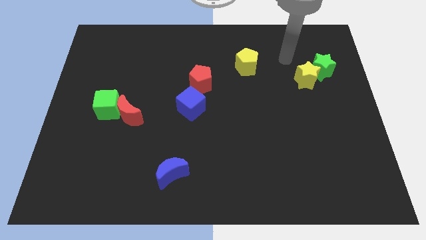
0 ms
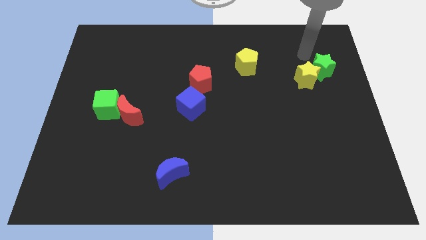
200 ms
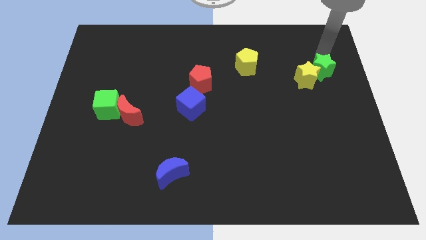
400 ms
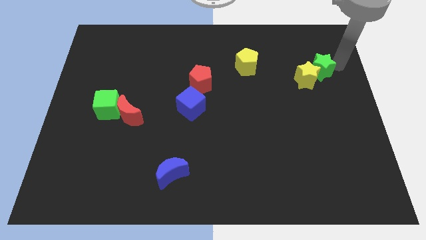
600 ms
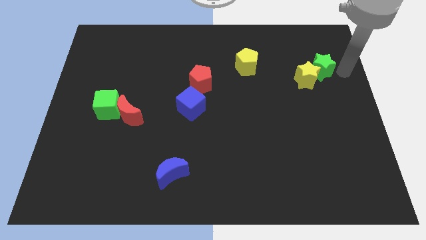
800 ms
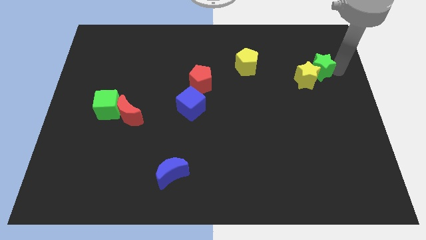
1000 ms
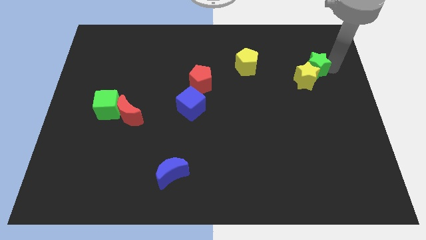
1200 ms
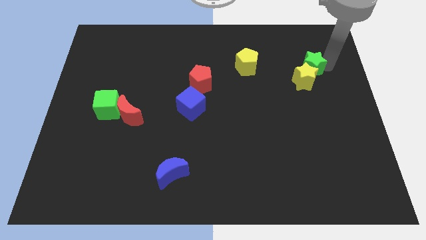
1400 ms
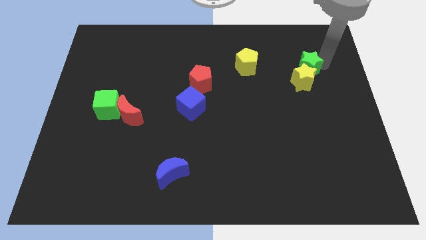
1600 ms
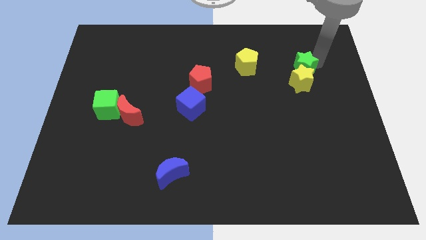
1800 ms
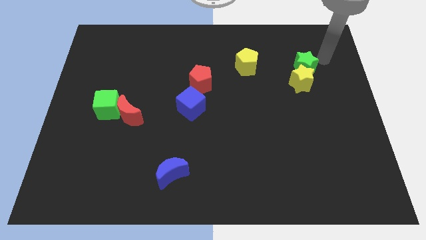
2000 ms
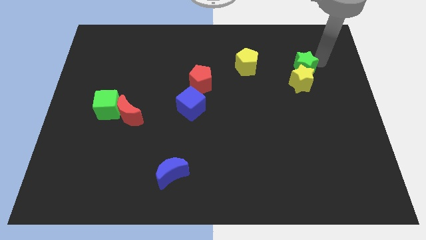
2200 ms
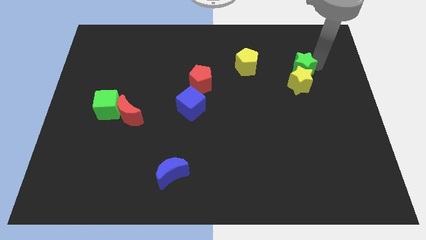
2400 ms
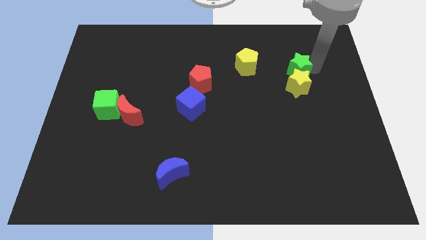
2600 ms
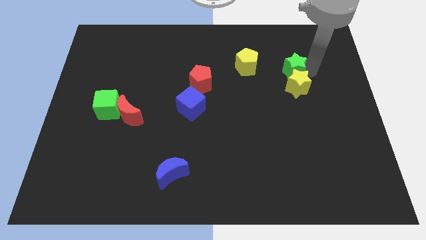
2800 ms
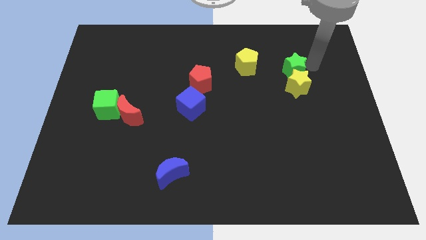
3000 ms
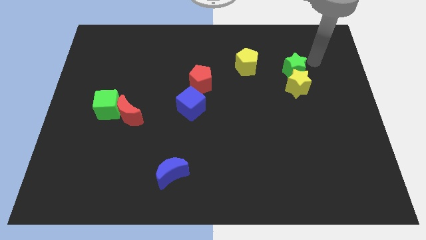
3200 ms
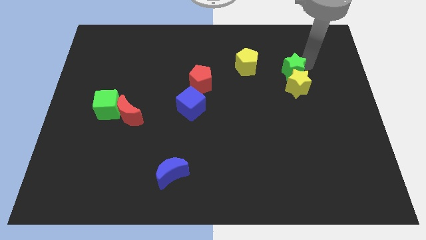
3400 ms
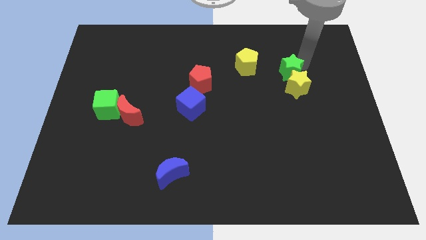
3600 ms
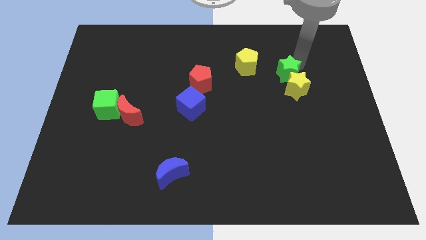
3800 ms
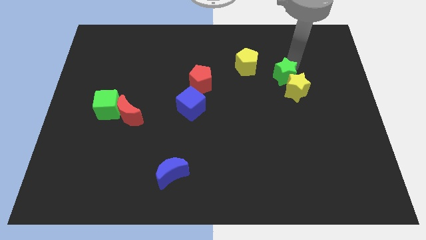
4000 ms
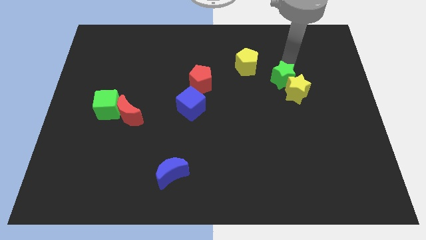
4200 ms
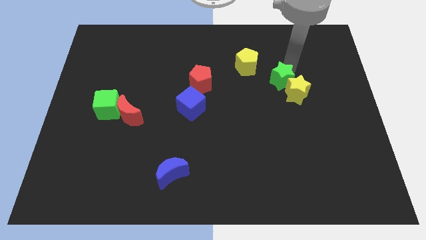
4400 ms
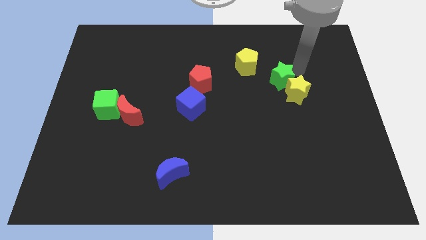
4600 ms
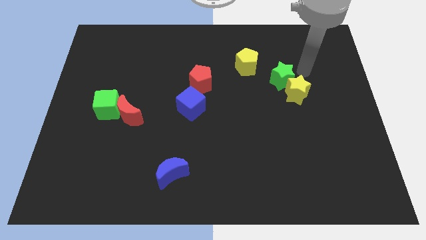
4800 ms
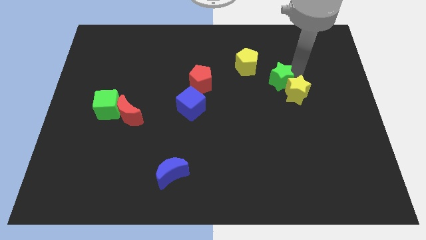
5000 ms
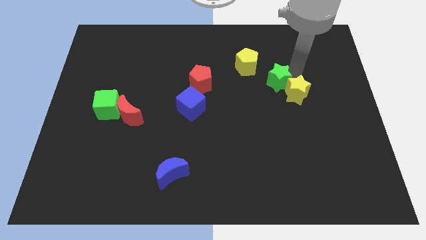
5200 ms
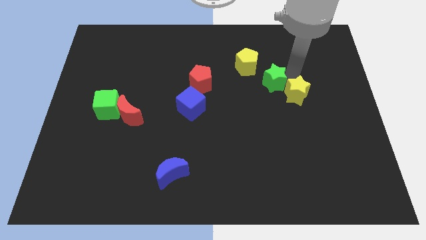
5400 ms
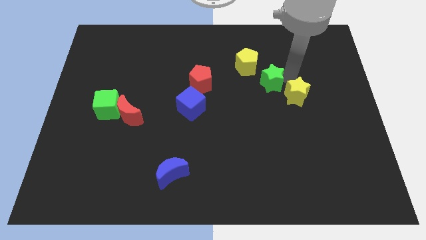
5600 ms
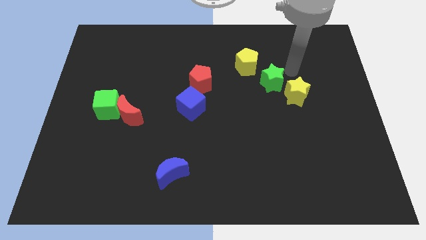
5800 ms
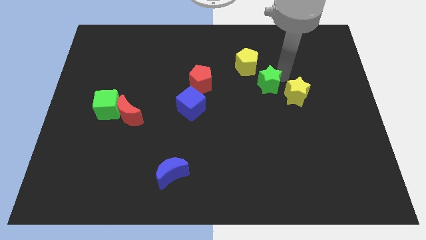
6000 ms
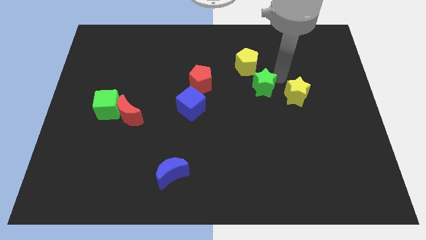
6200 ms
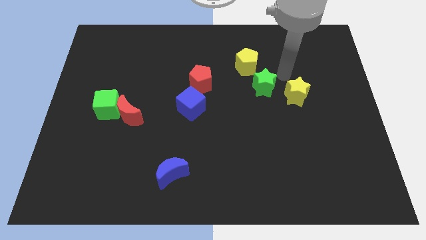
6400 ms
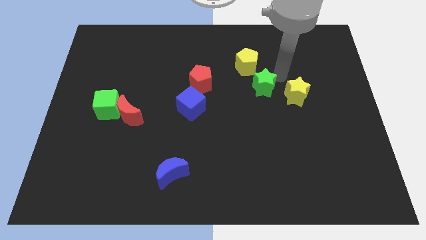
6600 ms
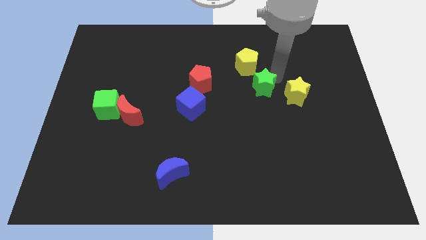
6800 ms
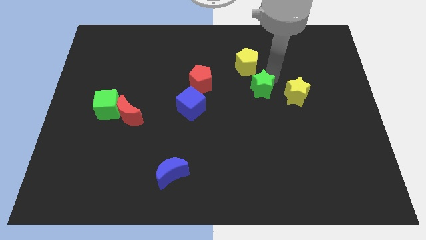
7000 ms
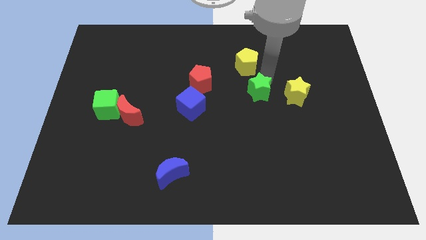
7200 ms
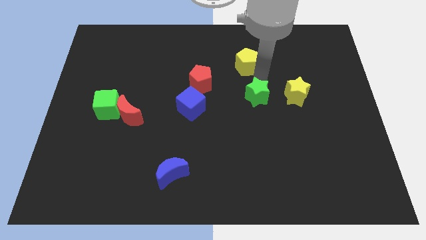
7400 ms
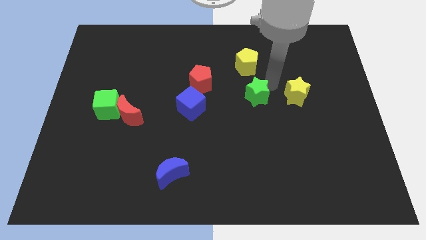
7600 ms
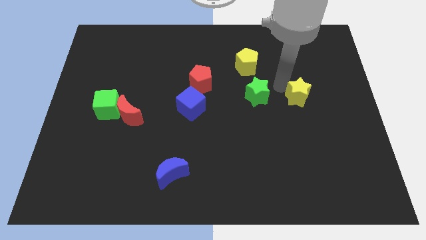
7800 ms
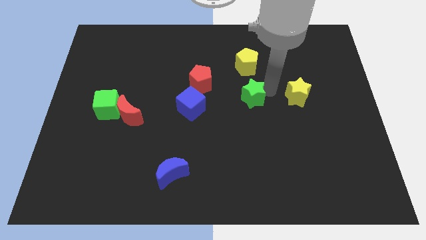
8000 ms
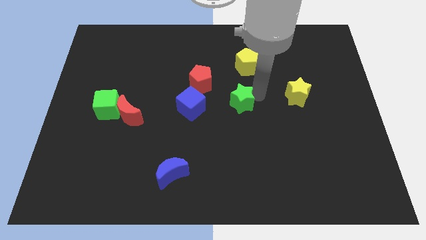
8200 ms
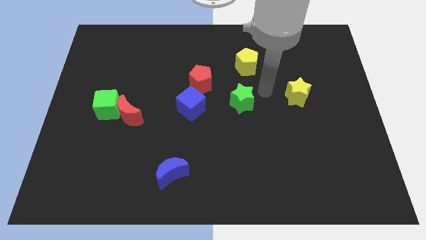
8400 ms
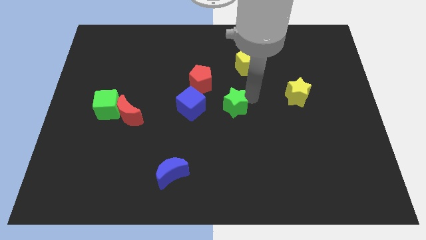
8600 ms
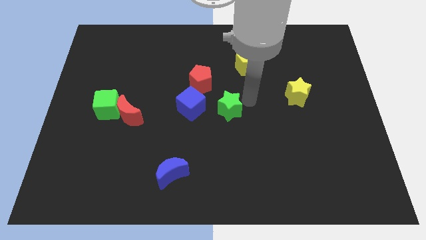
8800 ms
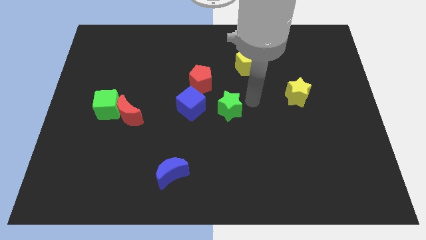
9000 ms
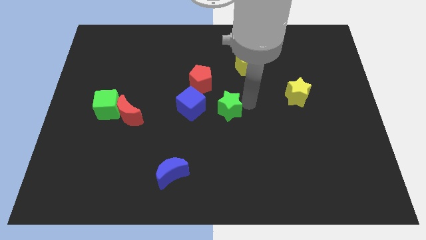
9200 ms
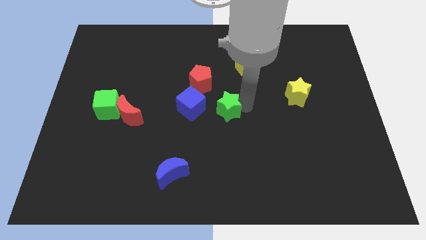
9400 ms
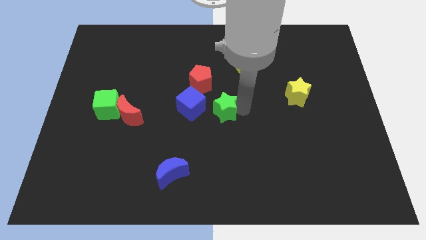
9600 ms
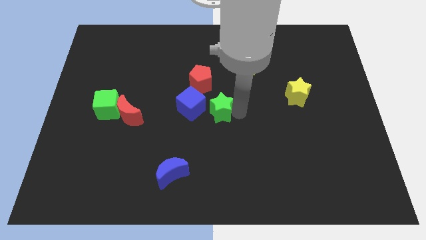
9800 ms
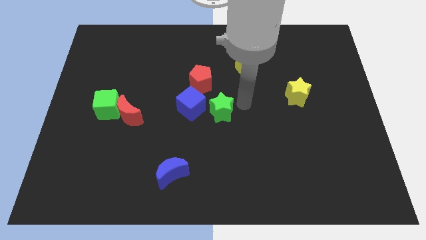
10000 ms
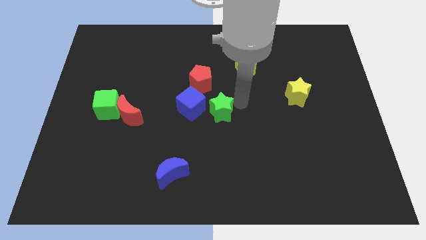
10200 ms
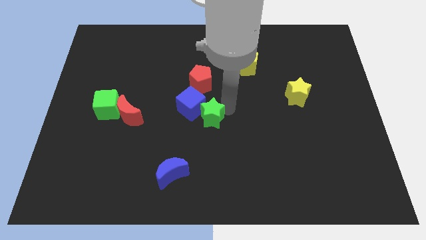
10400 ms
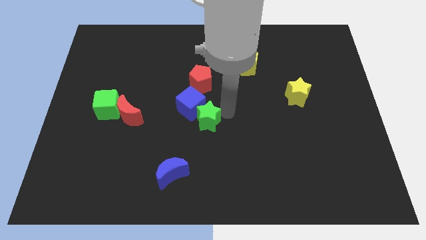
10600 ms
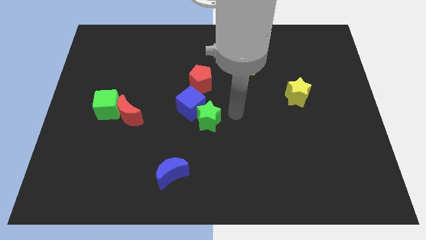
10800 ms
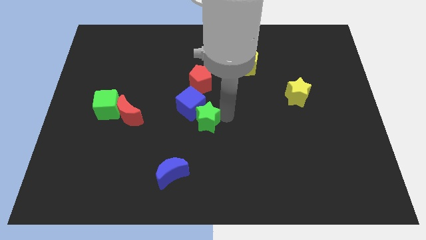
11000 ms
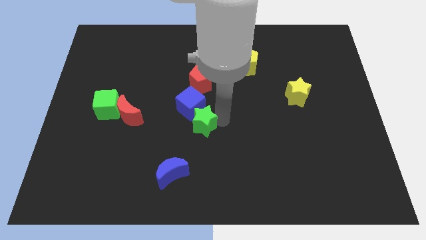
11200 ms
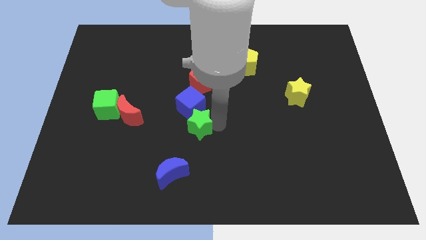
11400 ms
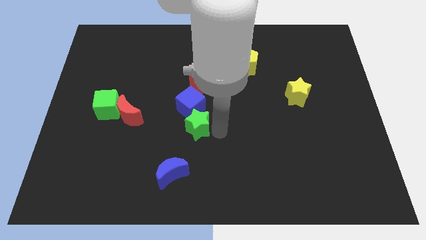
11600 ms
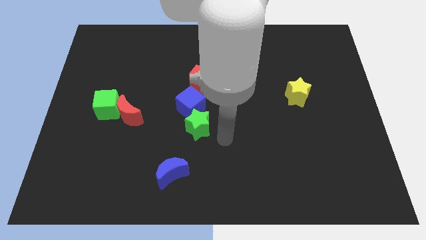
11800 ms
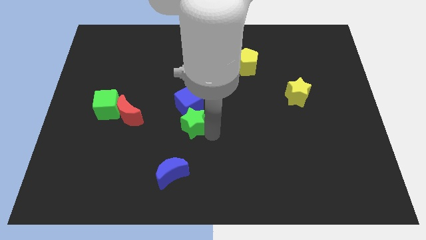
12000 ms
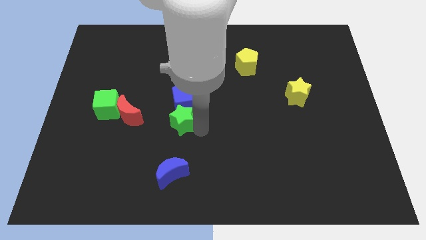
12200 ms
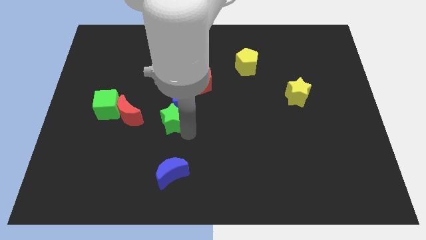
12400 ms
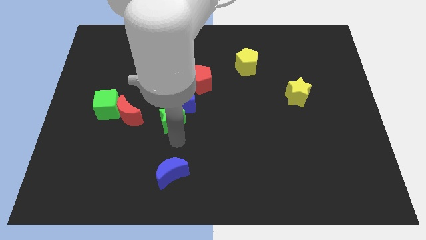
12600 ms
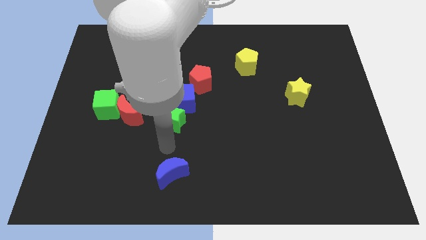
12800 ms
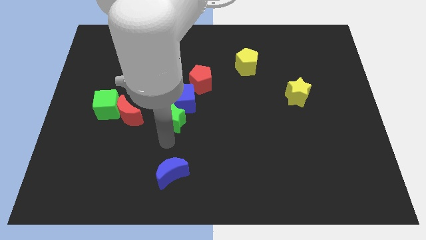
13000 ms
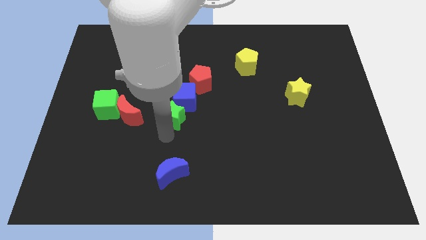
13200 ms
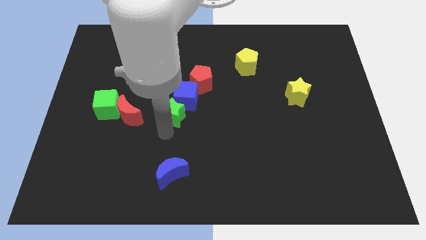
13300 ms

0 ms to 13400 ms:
move the green star to the bottom left side of the red pentagon
